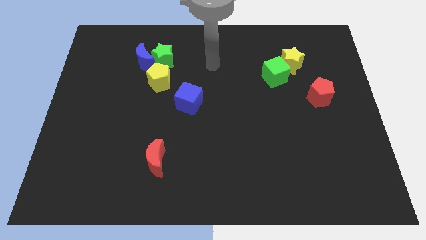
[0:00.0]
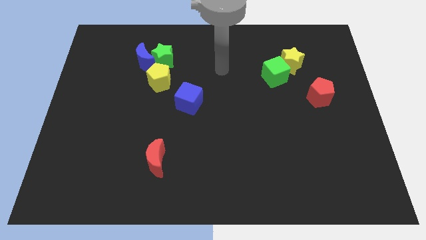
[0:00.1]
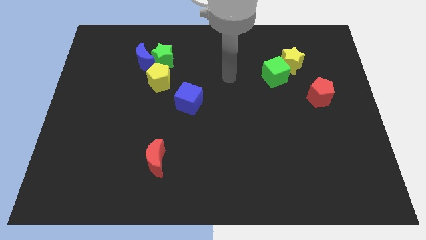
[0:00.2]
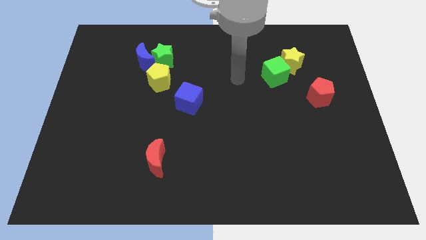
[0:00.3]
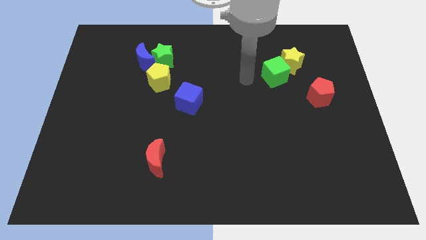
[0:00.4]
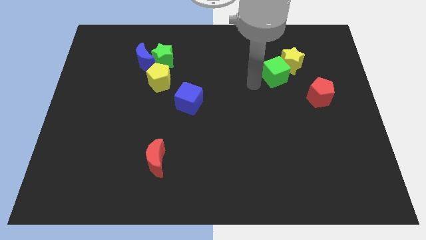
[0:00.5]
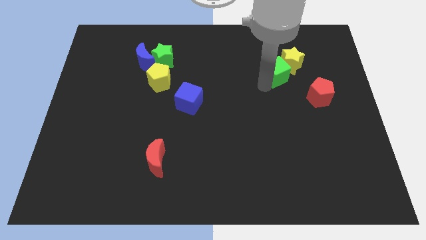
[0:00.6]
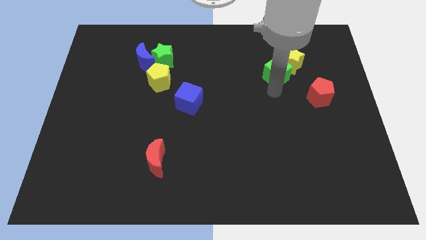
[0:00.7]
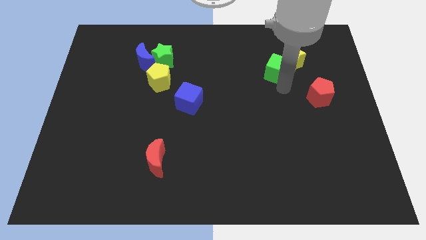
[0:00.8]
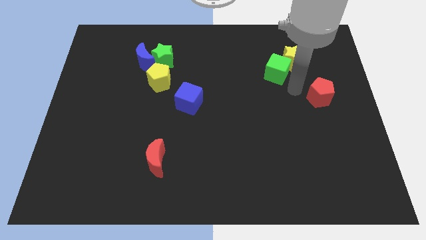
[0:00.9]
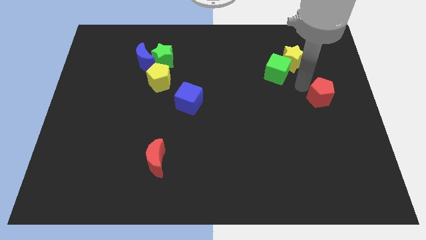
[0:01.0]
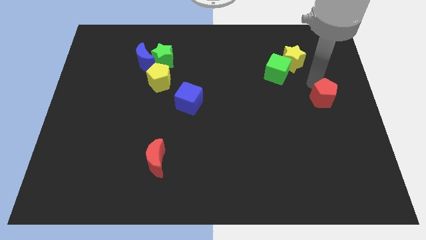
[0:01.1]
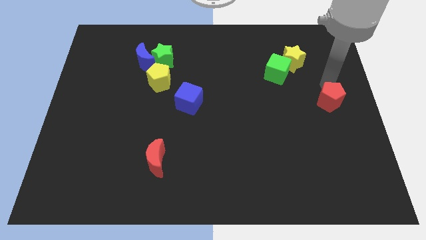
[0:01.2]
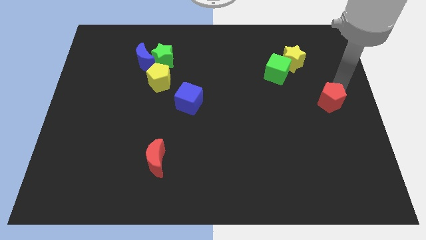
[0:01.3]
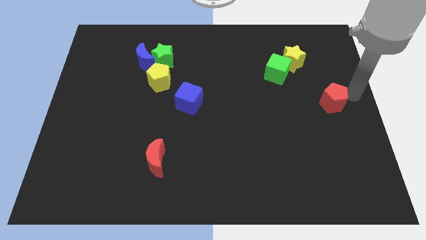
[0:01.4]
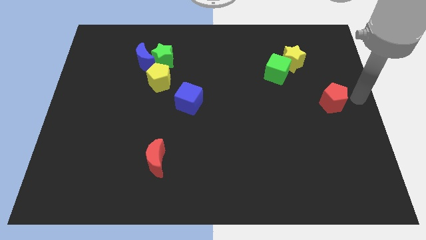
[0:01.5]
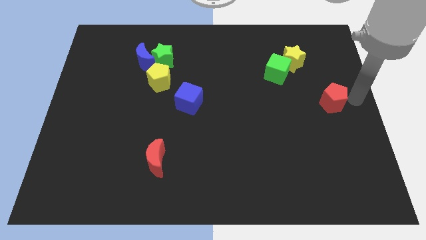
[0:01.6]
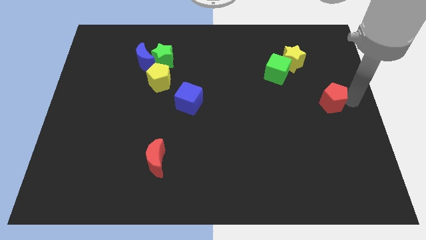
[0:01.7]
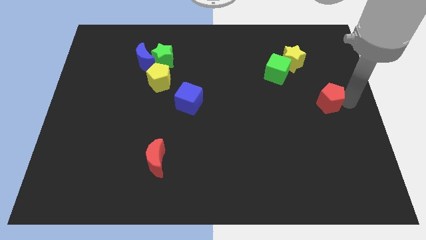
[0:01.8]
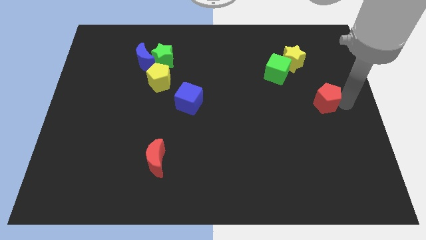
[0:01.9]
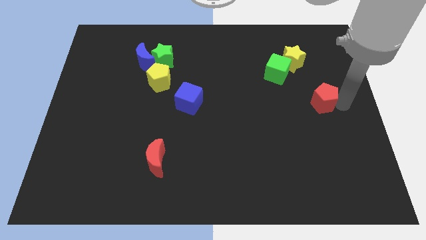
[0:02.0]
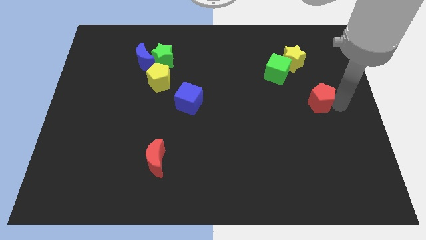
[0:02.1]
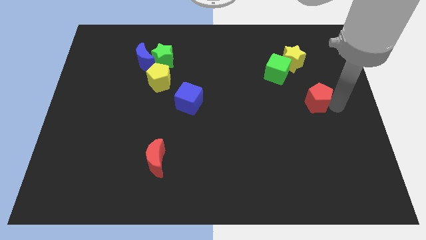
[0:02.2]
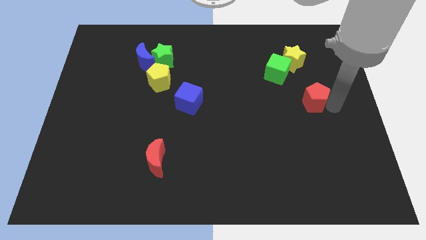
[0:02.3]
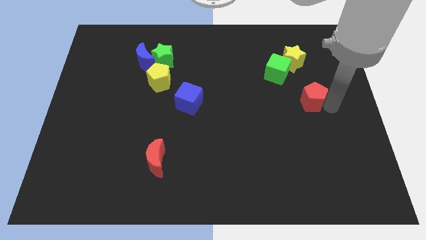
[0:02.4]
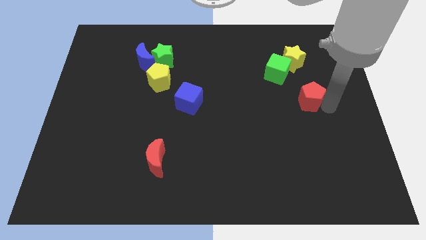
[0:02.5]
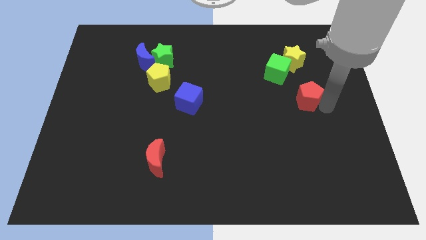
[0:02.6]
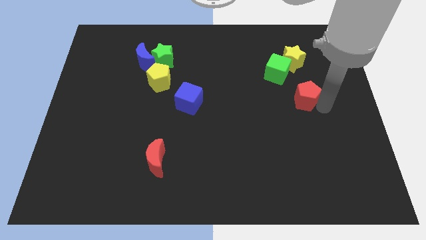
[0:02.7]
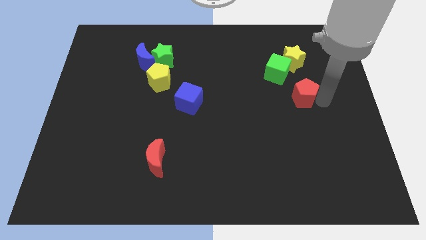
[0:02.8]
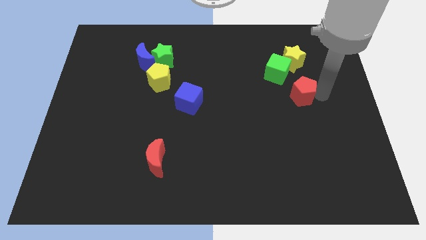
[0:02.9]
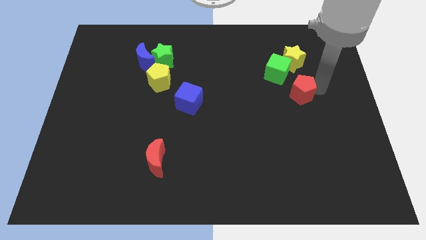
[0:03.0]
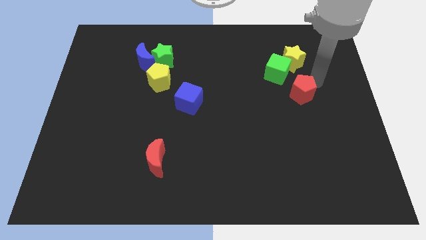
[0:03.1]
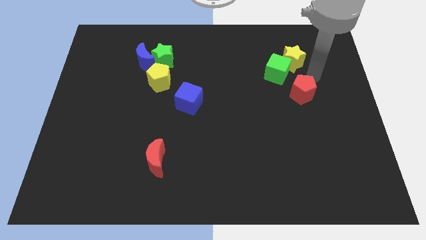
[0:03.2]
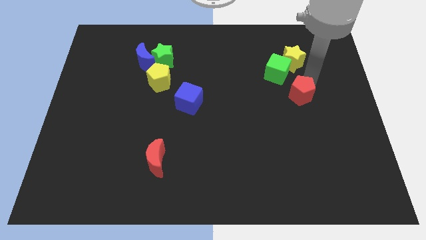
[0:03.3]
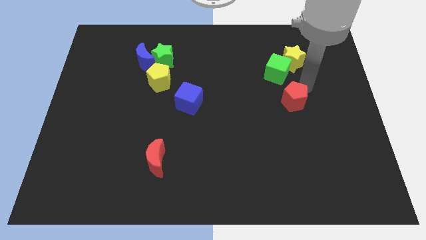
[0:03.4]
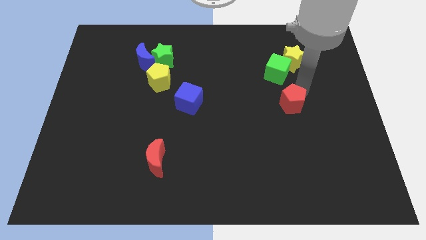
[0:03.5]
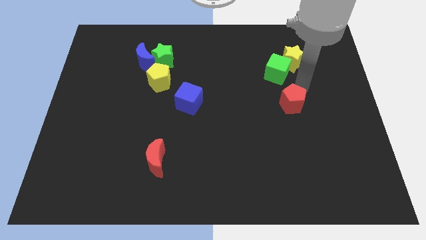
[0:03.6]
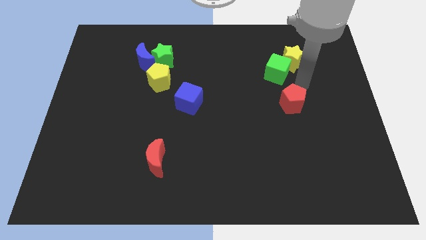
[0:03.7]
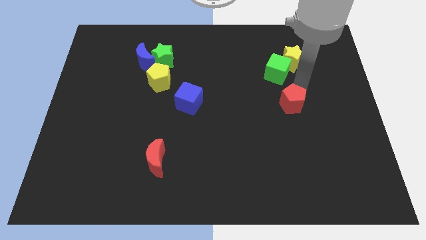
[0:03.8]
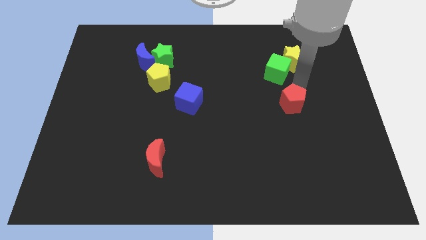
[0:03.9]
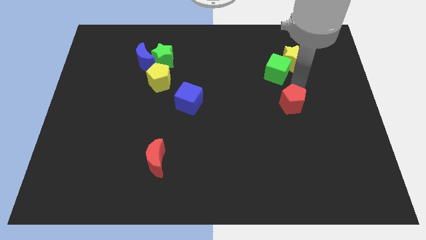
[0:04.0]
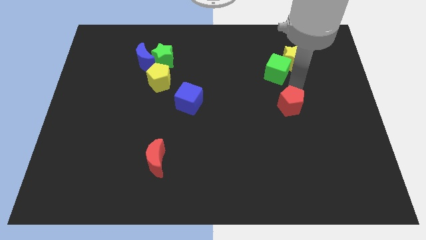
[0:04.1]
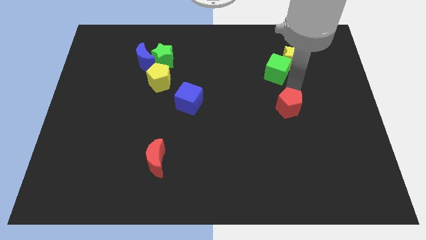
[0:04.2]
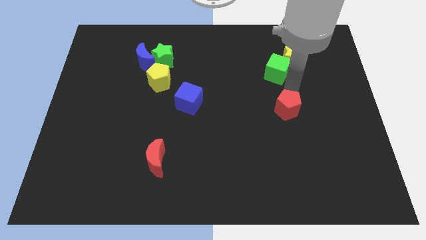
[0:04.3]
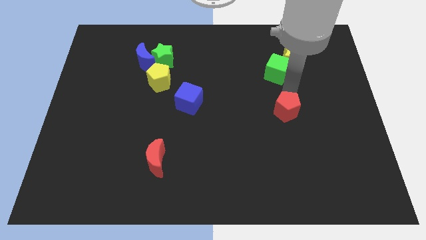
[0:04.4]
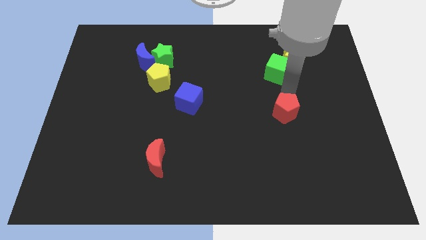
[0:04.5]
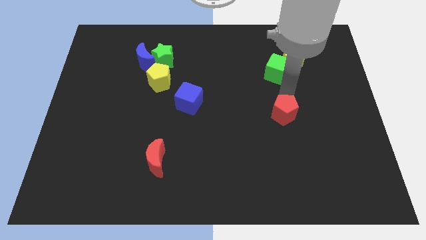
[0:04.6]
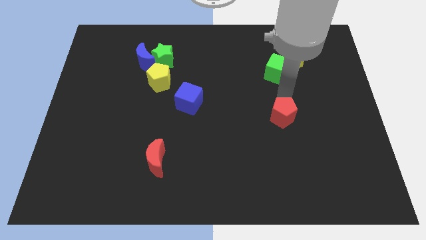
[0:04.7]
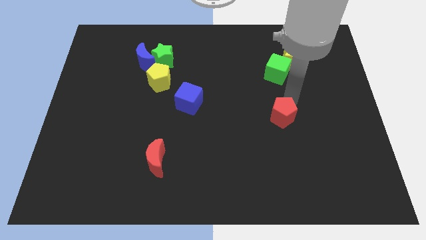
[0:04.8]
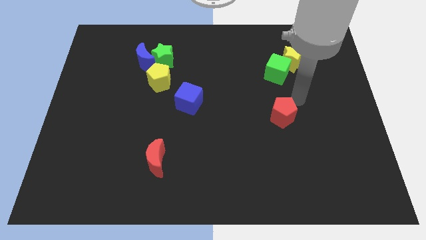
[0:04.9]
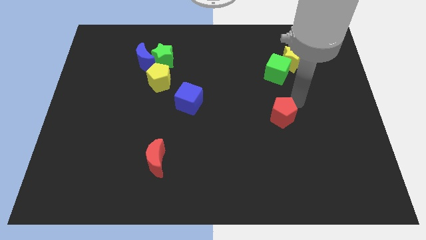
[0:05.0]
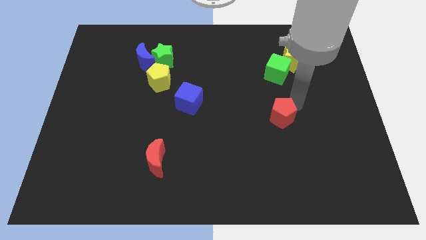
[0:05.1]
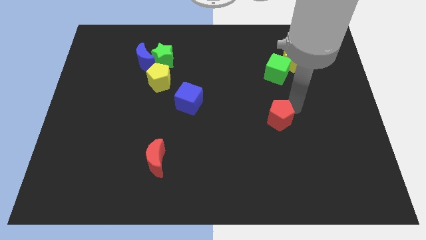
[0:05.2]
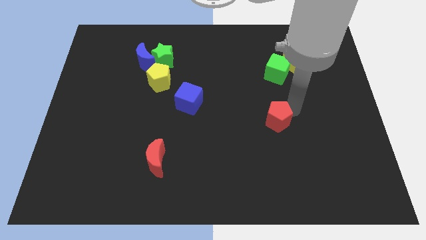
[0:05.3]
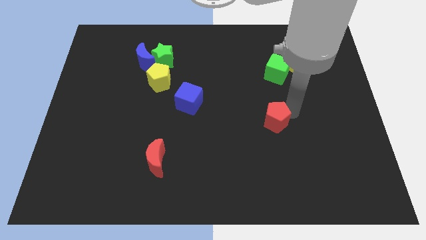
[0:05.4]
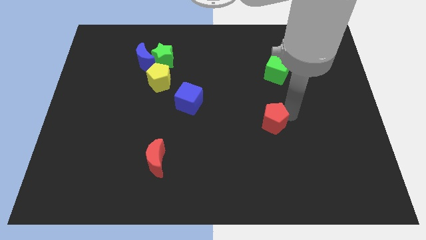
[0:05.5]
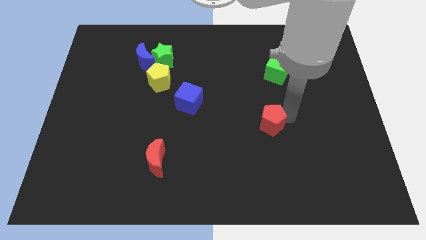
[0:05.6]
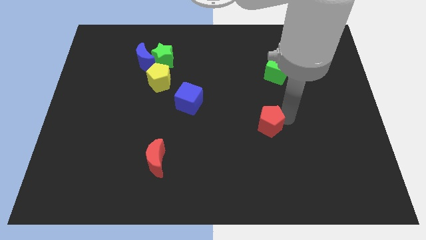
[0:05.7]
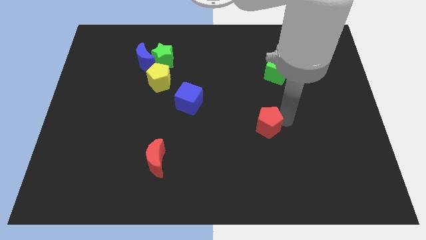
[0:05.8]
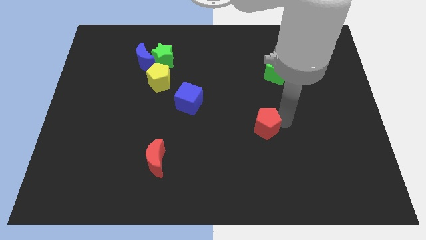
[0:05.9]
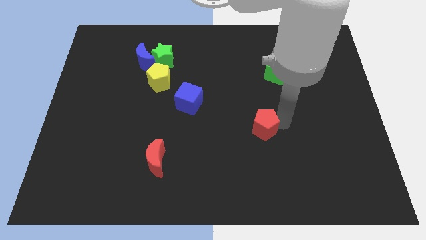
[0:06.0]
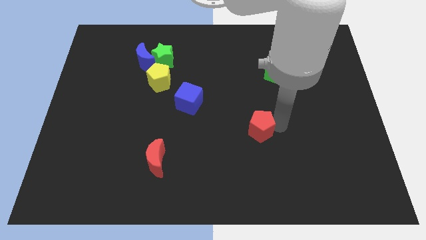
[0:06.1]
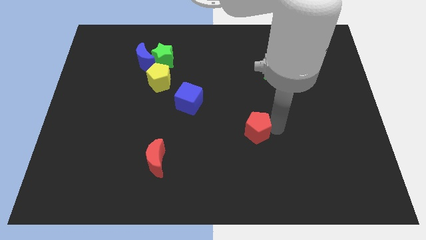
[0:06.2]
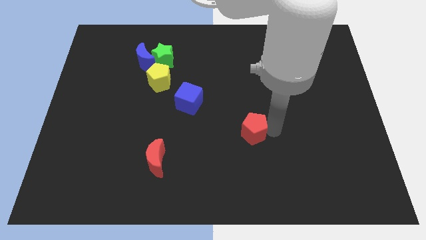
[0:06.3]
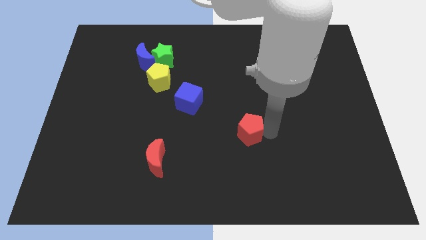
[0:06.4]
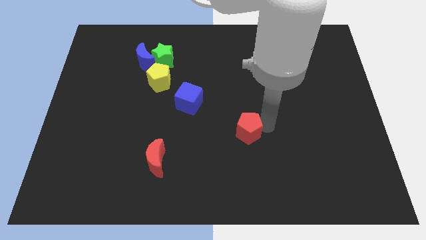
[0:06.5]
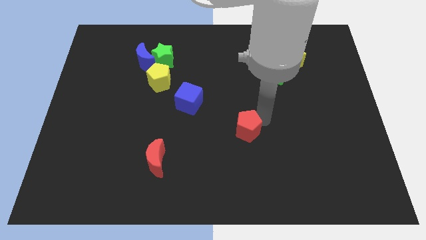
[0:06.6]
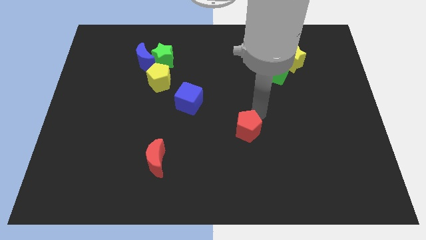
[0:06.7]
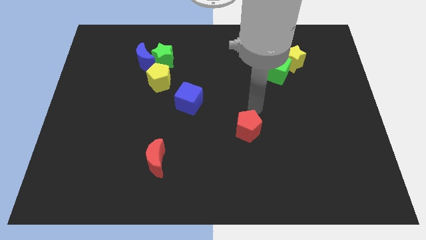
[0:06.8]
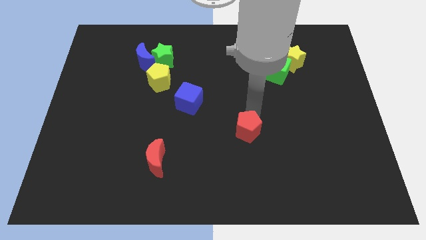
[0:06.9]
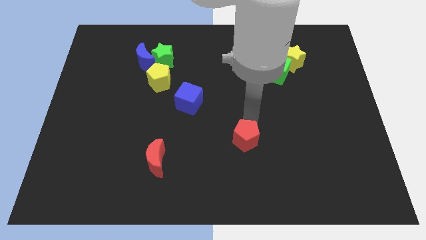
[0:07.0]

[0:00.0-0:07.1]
slide the red pentagon downwards and left diagonally

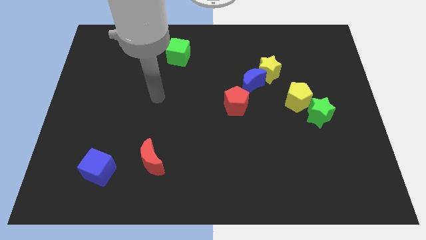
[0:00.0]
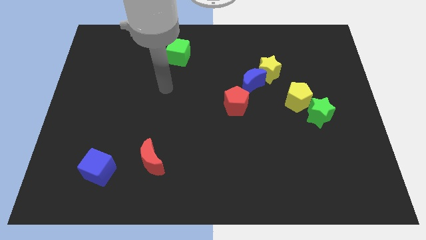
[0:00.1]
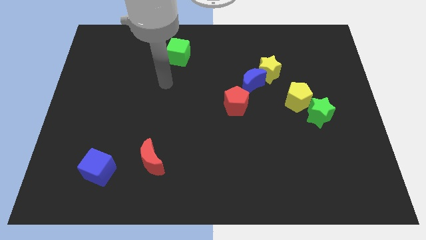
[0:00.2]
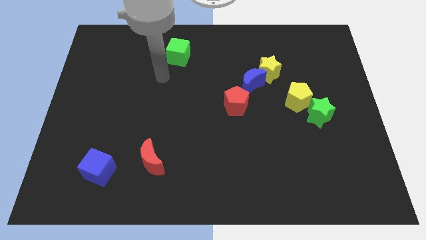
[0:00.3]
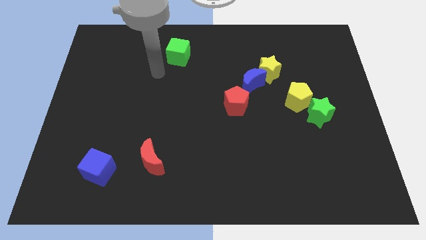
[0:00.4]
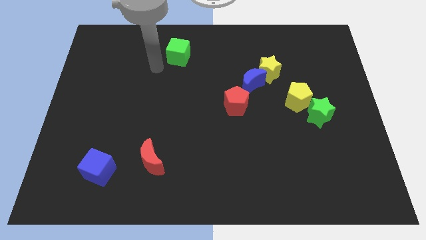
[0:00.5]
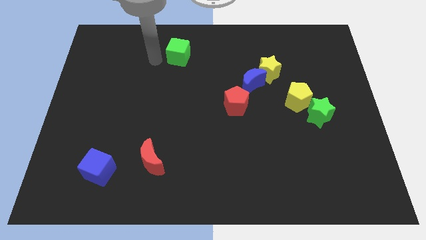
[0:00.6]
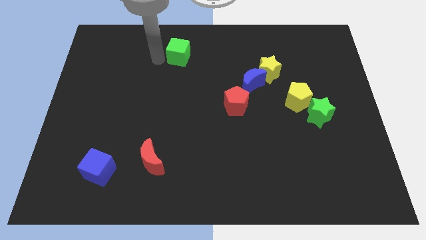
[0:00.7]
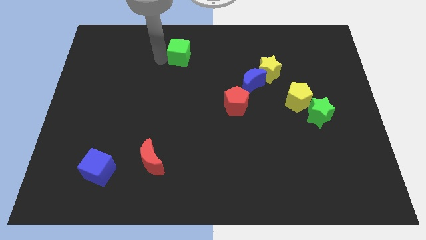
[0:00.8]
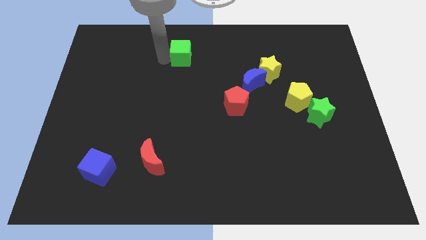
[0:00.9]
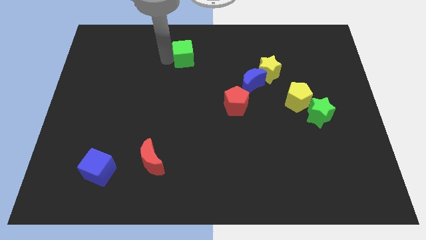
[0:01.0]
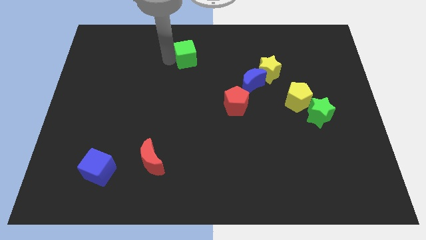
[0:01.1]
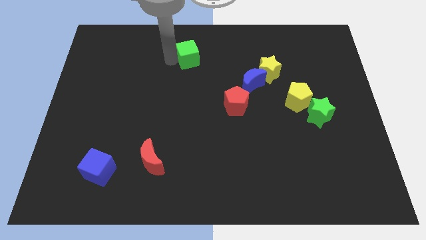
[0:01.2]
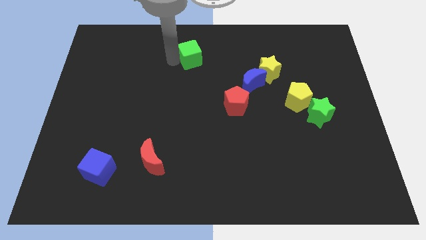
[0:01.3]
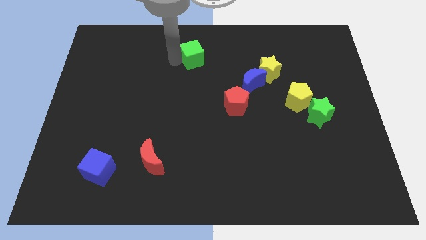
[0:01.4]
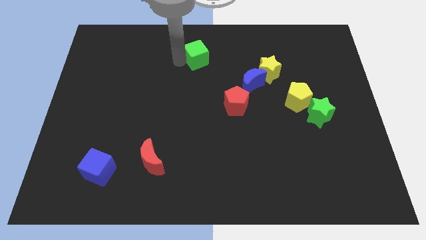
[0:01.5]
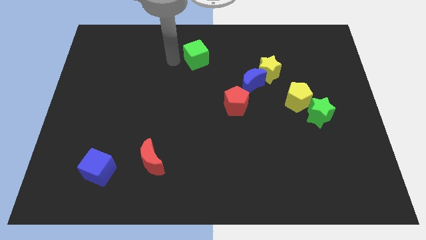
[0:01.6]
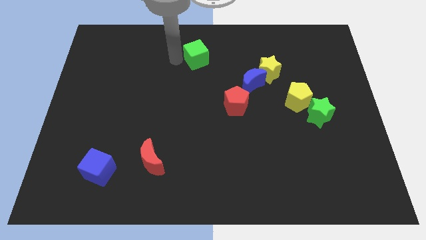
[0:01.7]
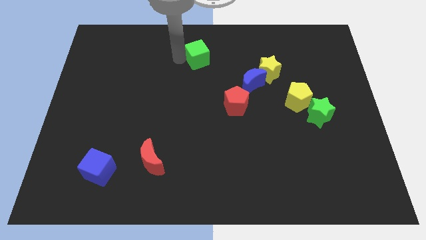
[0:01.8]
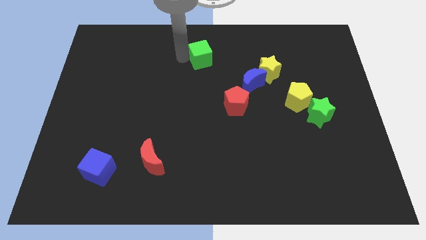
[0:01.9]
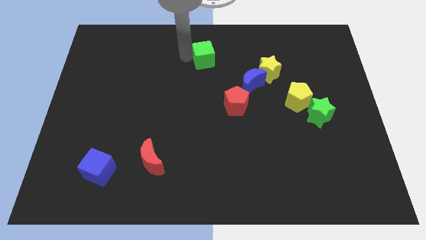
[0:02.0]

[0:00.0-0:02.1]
push the green cube slightly to the right
